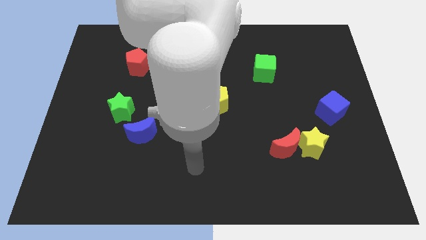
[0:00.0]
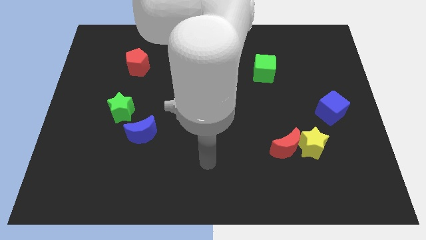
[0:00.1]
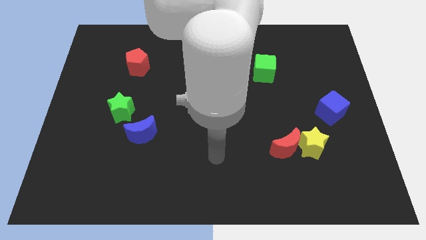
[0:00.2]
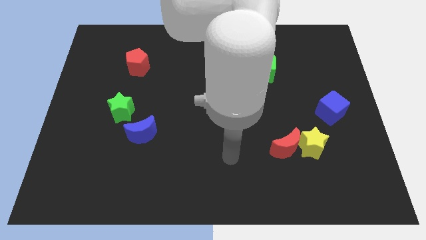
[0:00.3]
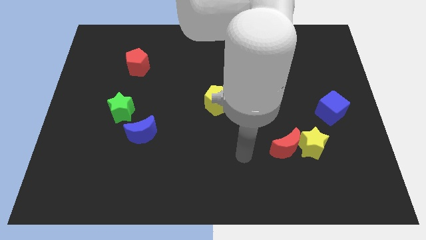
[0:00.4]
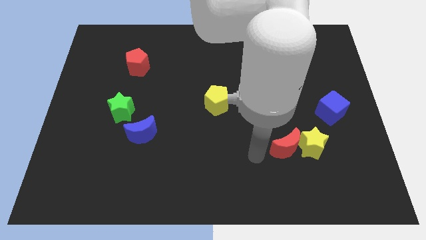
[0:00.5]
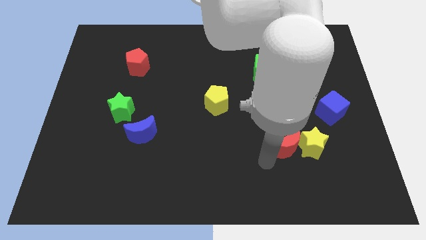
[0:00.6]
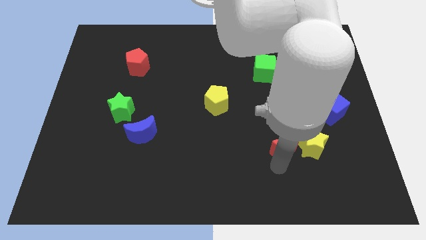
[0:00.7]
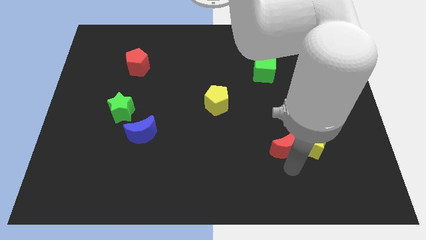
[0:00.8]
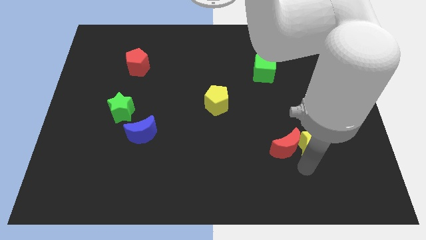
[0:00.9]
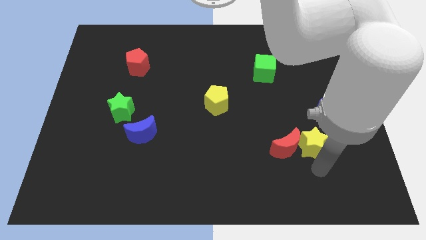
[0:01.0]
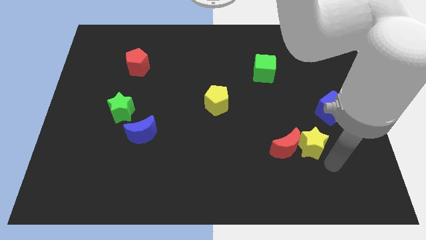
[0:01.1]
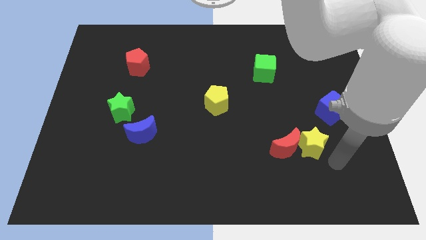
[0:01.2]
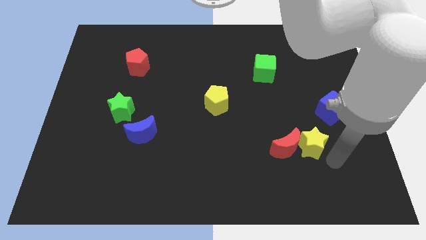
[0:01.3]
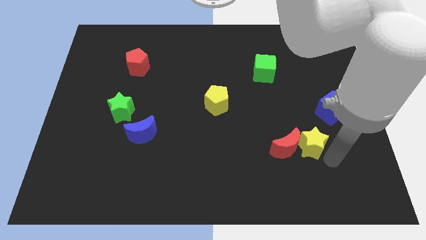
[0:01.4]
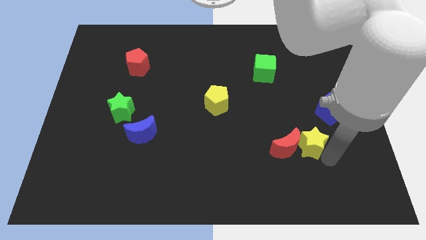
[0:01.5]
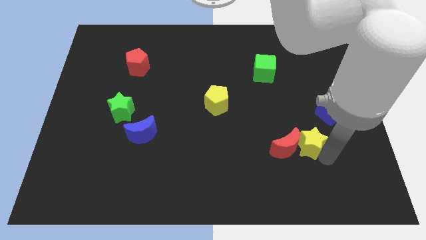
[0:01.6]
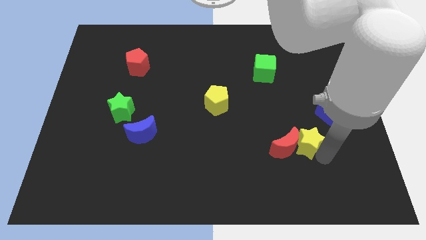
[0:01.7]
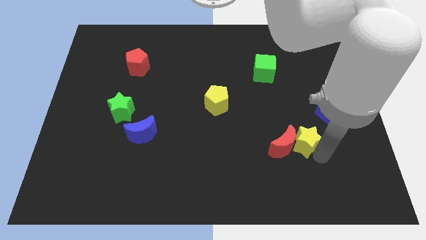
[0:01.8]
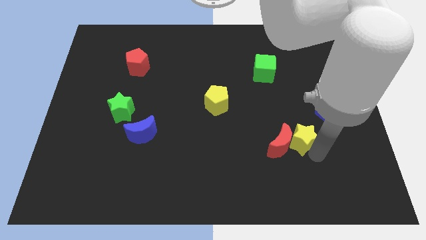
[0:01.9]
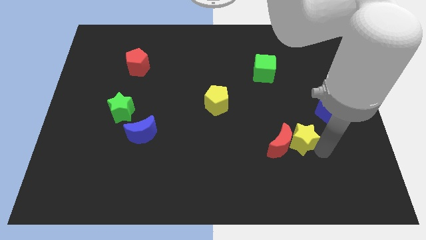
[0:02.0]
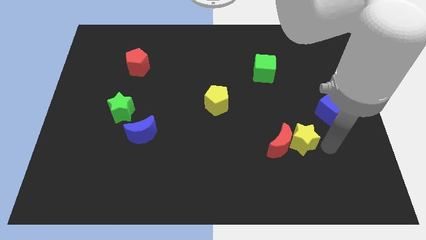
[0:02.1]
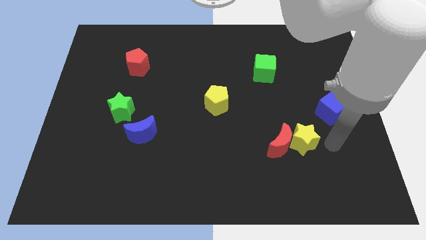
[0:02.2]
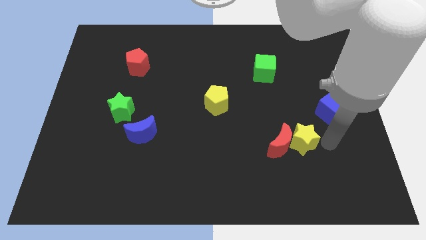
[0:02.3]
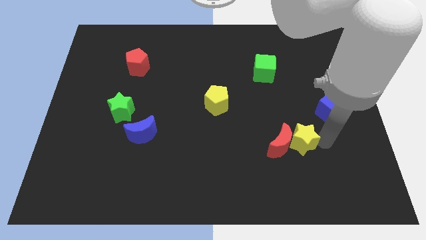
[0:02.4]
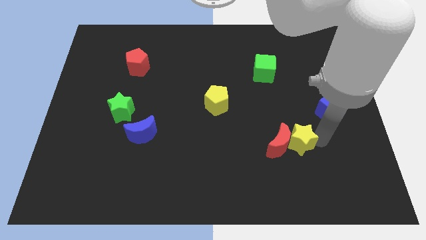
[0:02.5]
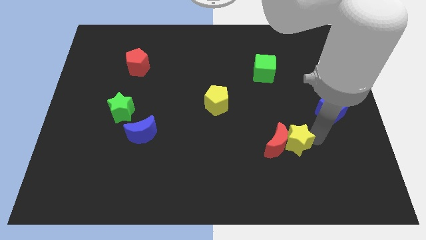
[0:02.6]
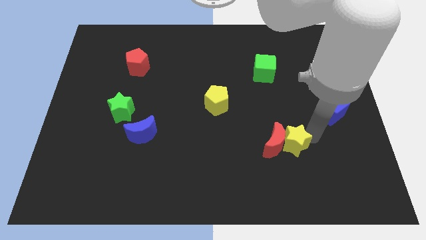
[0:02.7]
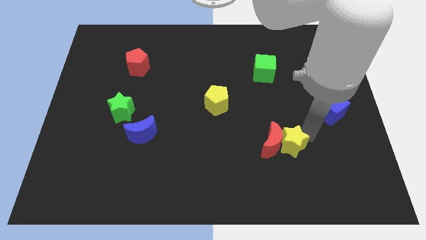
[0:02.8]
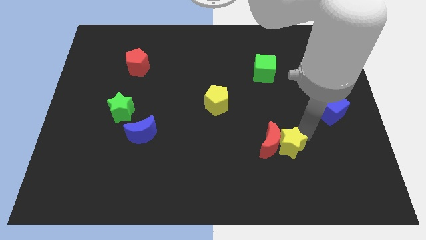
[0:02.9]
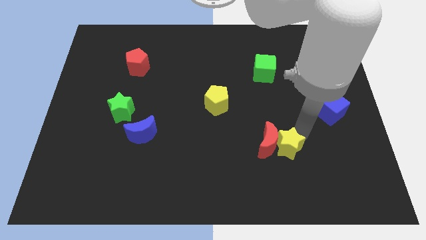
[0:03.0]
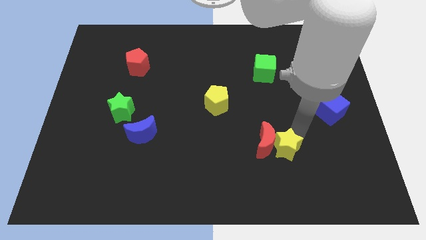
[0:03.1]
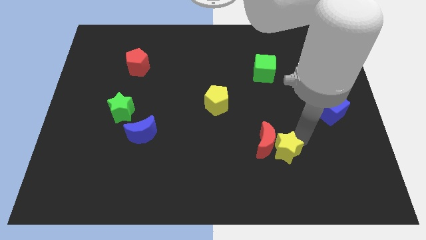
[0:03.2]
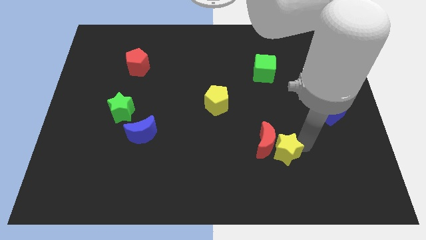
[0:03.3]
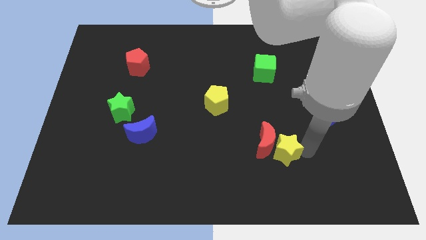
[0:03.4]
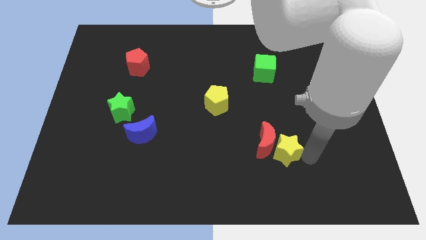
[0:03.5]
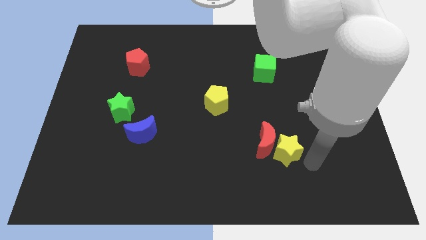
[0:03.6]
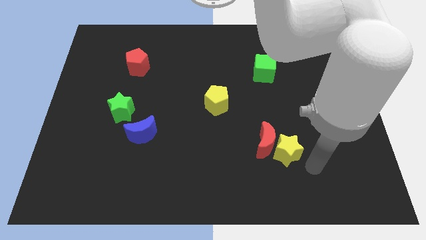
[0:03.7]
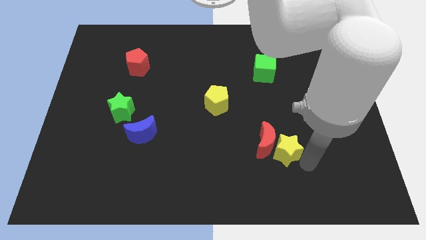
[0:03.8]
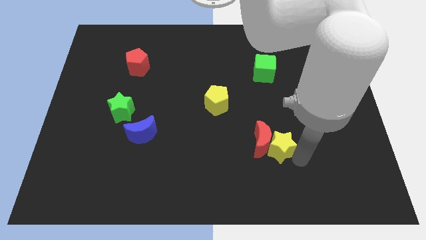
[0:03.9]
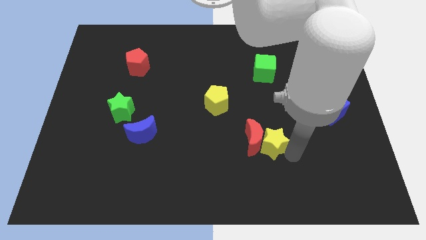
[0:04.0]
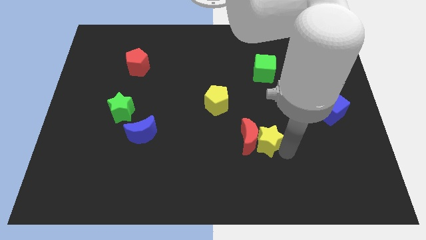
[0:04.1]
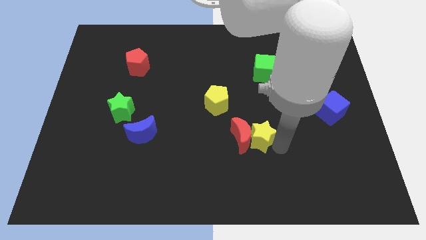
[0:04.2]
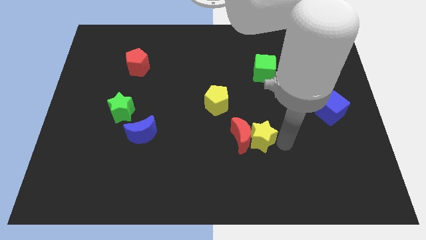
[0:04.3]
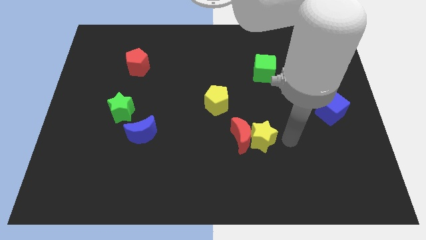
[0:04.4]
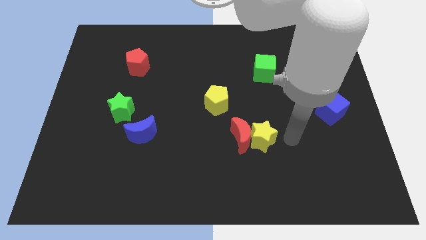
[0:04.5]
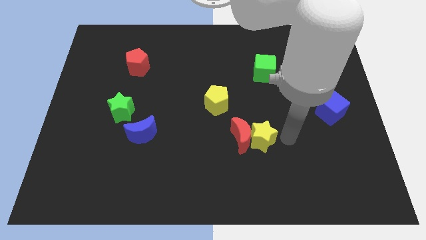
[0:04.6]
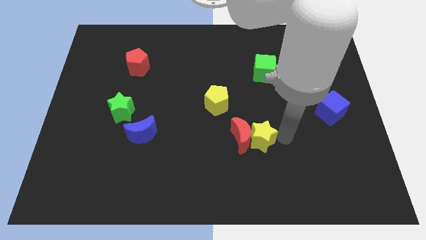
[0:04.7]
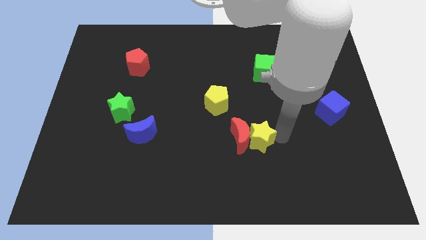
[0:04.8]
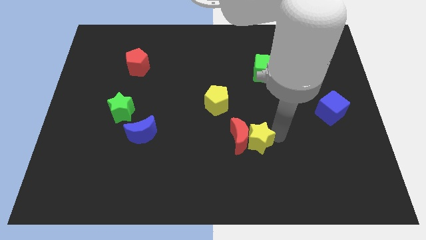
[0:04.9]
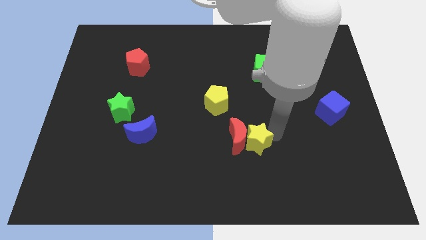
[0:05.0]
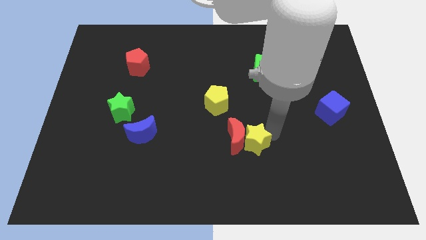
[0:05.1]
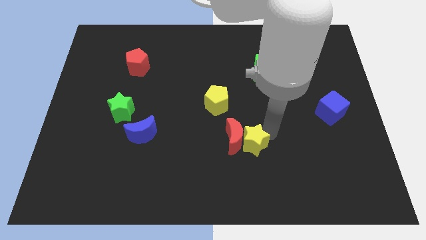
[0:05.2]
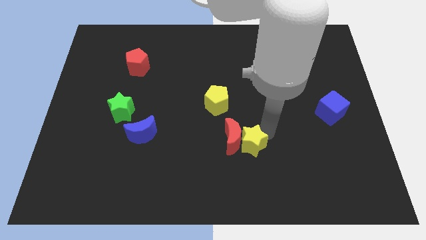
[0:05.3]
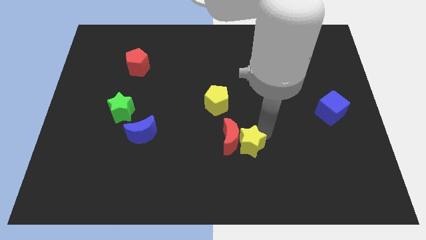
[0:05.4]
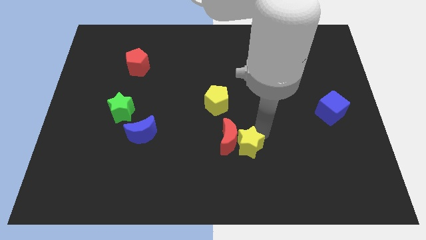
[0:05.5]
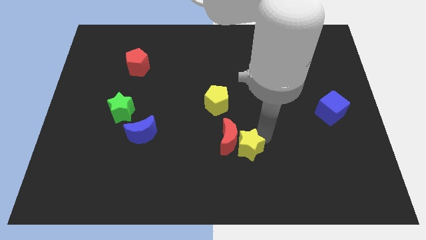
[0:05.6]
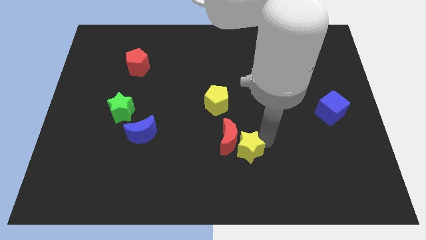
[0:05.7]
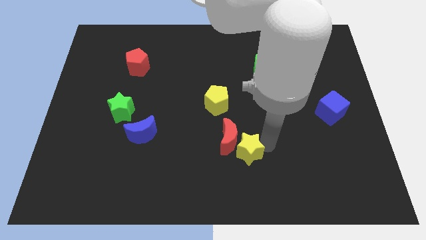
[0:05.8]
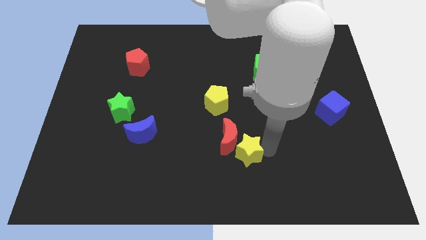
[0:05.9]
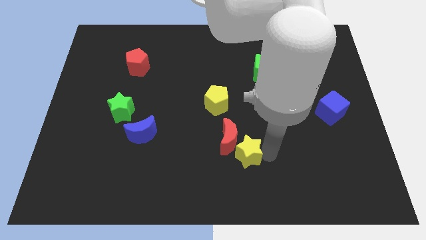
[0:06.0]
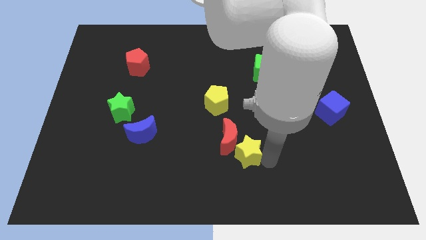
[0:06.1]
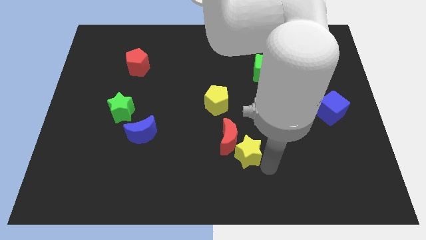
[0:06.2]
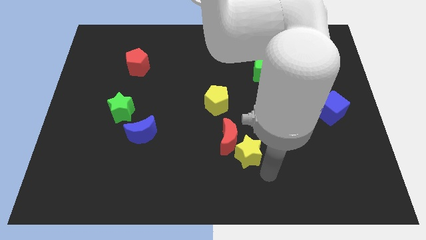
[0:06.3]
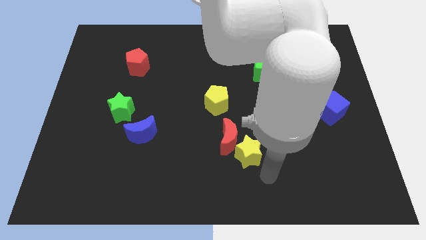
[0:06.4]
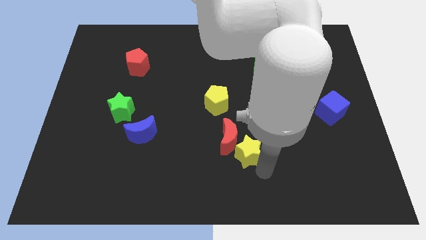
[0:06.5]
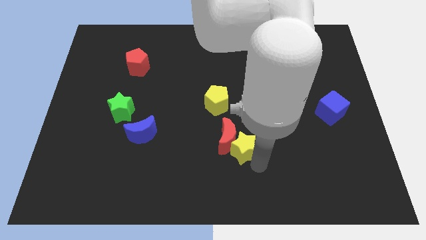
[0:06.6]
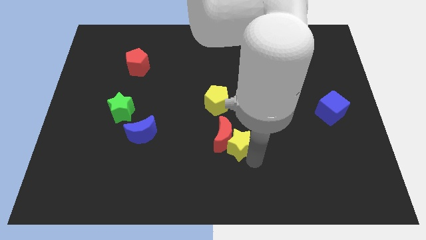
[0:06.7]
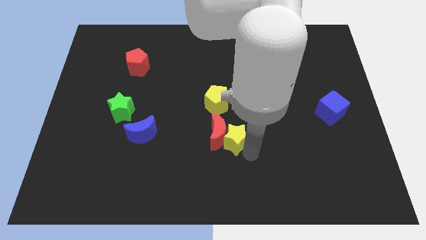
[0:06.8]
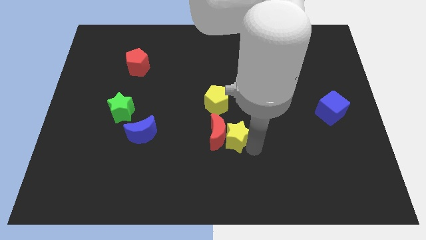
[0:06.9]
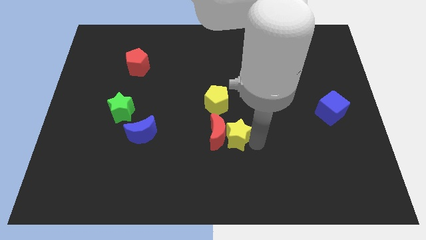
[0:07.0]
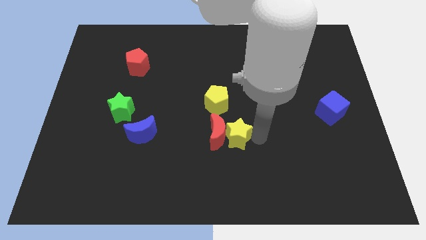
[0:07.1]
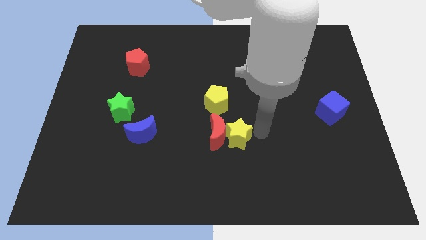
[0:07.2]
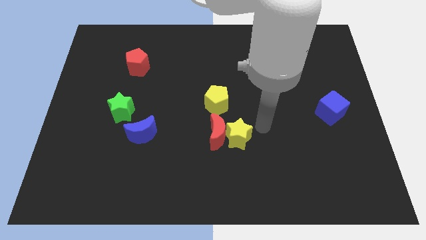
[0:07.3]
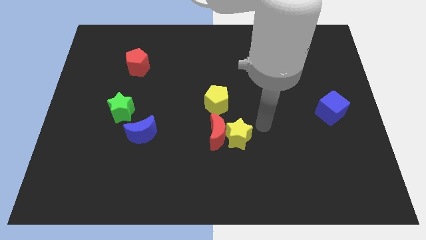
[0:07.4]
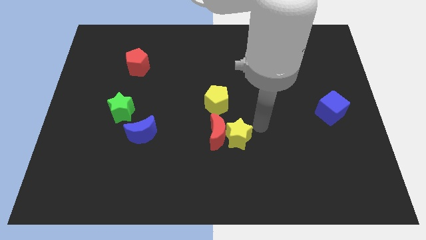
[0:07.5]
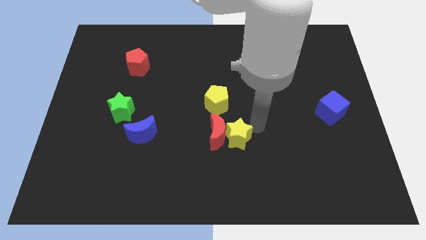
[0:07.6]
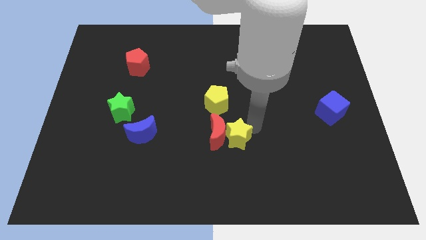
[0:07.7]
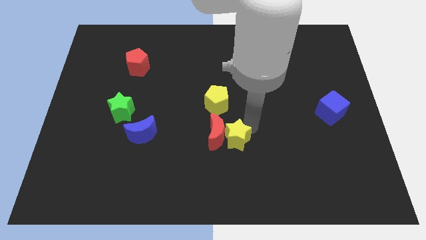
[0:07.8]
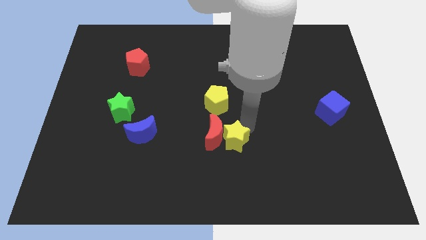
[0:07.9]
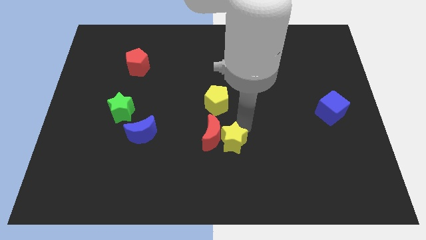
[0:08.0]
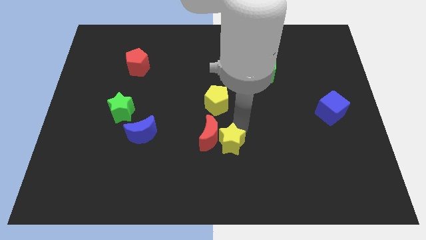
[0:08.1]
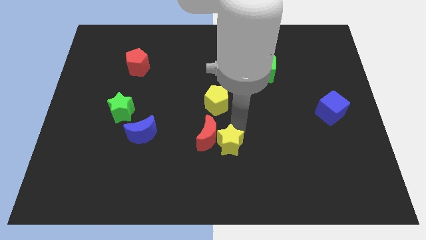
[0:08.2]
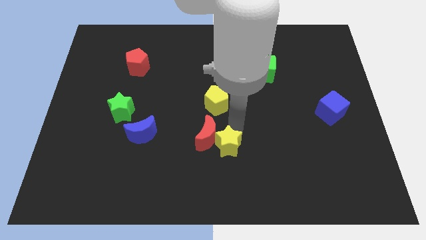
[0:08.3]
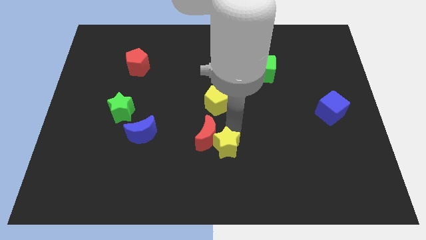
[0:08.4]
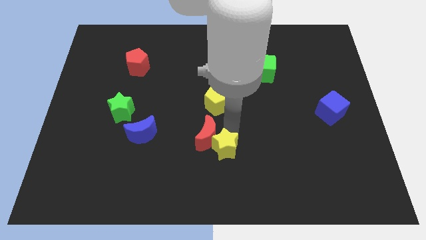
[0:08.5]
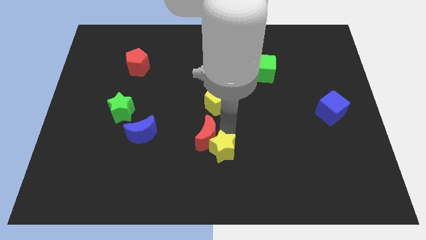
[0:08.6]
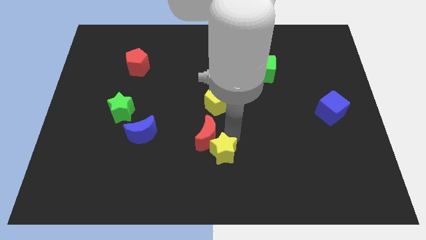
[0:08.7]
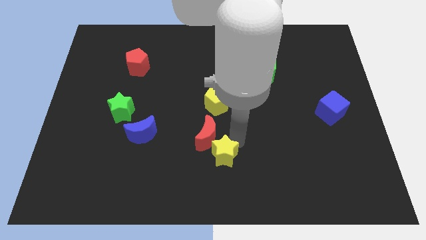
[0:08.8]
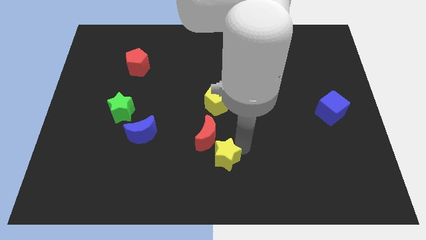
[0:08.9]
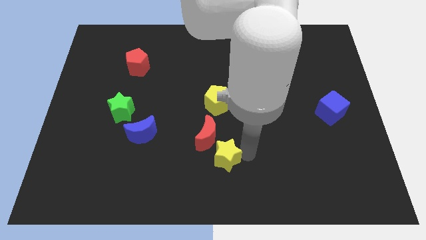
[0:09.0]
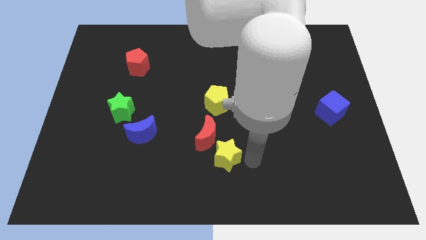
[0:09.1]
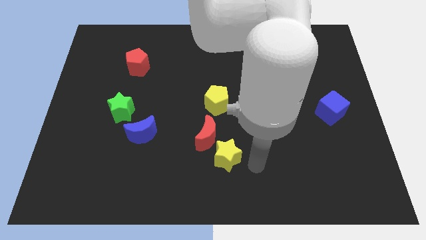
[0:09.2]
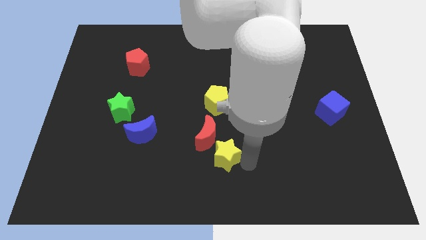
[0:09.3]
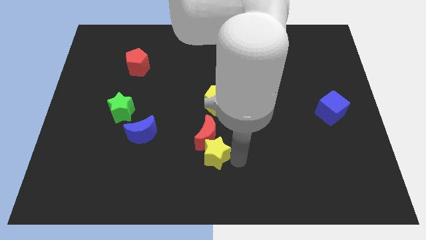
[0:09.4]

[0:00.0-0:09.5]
slide the yellow star left
